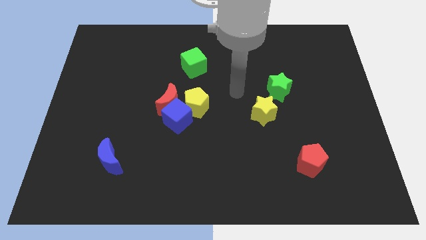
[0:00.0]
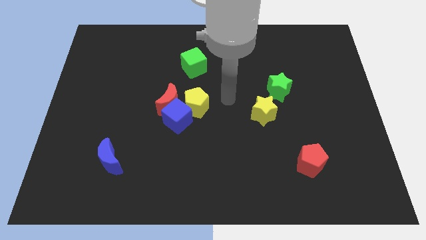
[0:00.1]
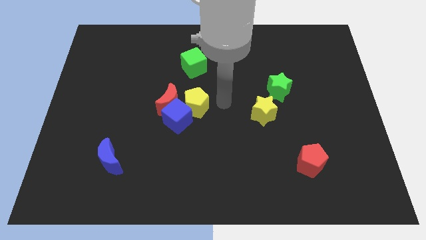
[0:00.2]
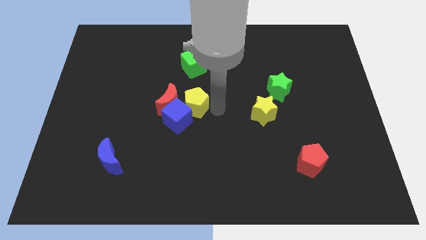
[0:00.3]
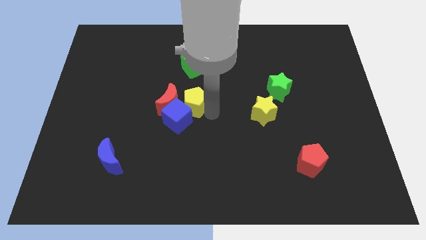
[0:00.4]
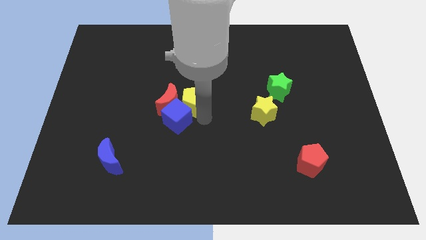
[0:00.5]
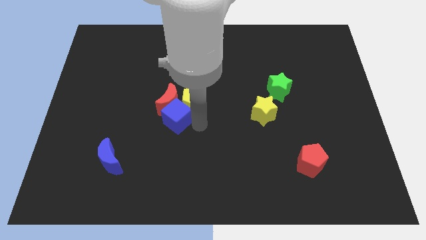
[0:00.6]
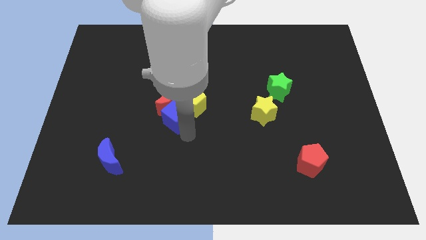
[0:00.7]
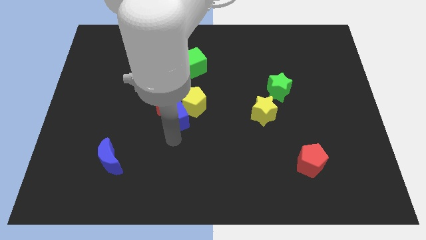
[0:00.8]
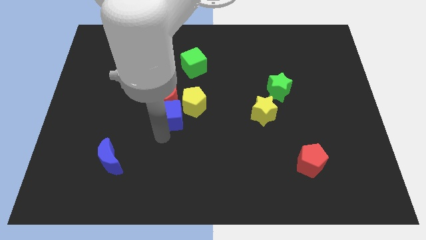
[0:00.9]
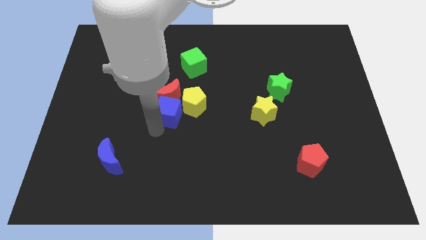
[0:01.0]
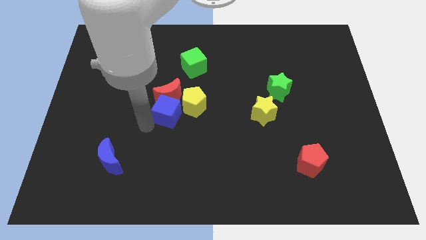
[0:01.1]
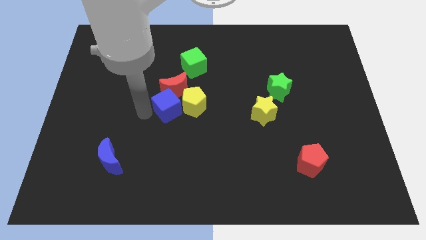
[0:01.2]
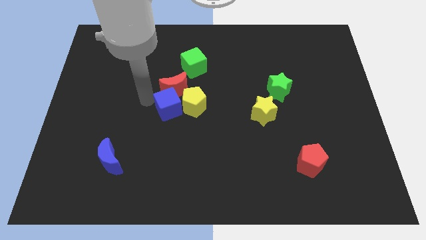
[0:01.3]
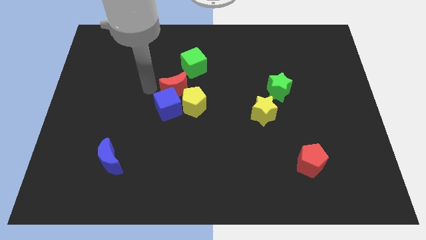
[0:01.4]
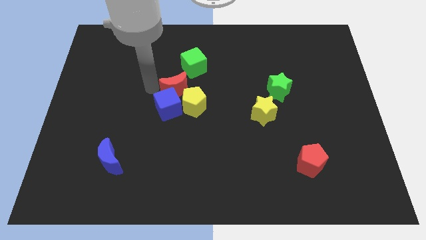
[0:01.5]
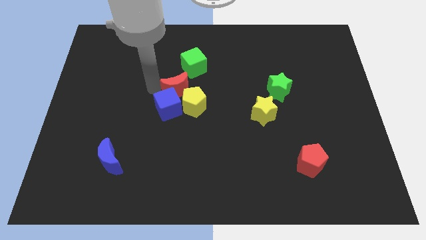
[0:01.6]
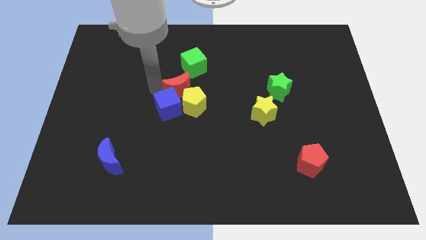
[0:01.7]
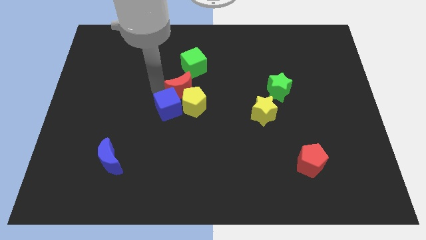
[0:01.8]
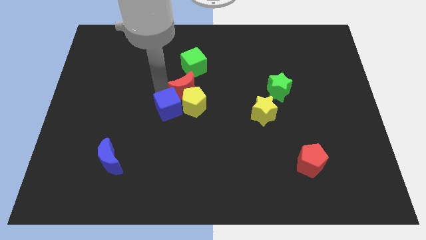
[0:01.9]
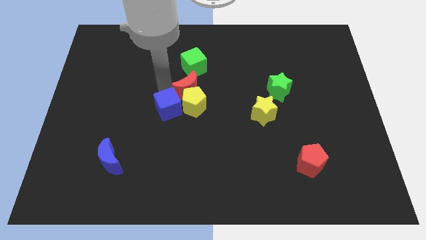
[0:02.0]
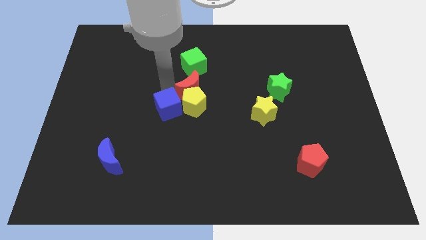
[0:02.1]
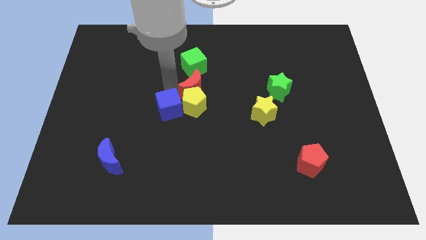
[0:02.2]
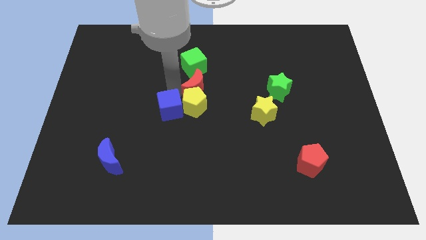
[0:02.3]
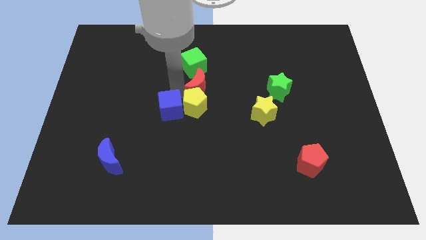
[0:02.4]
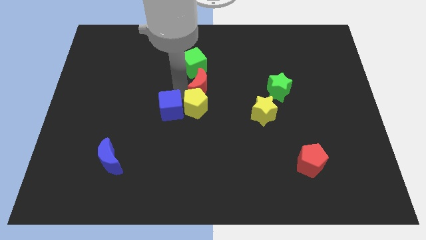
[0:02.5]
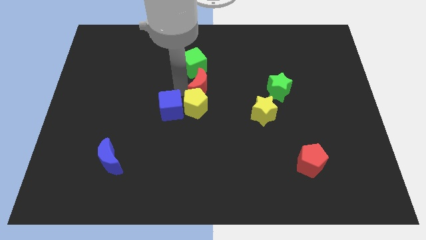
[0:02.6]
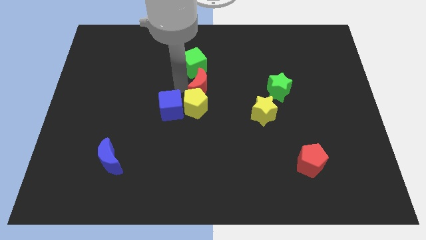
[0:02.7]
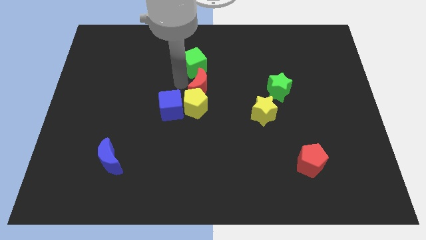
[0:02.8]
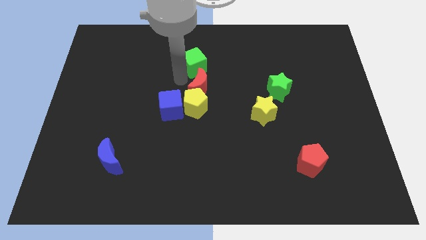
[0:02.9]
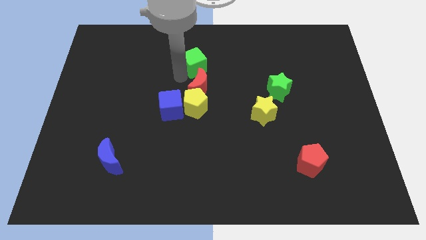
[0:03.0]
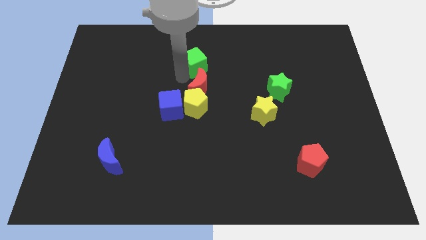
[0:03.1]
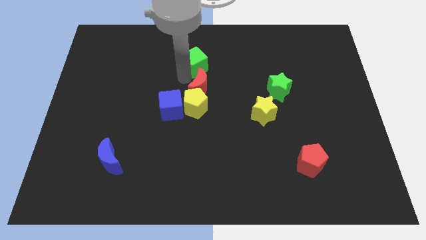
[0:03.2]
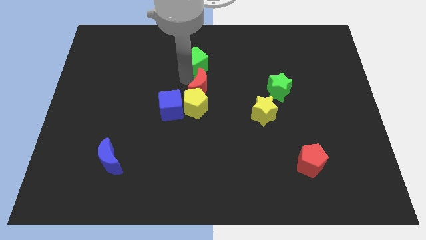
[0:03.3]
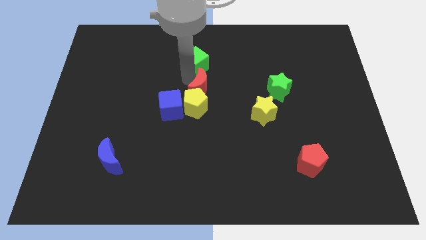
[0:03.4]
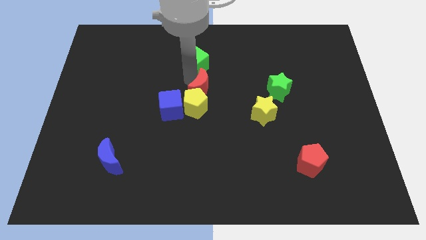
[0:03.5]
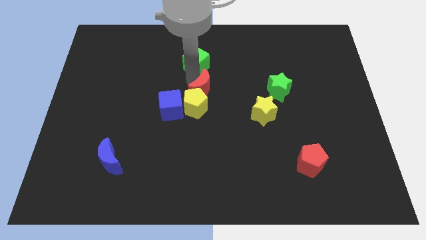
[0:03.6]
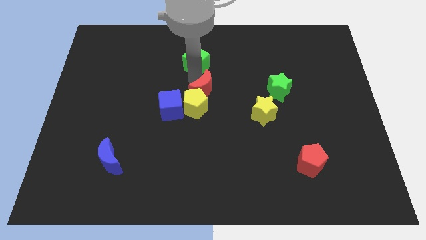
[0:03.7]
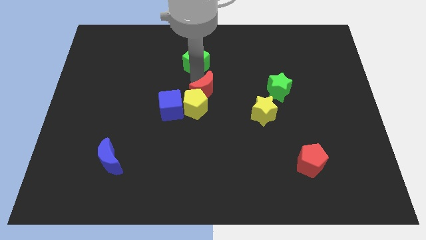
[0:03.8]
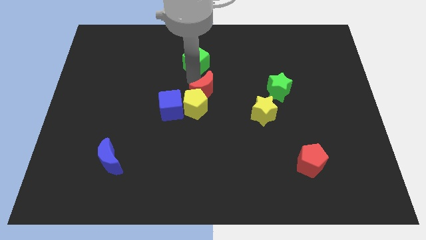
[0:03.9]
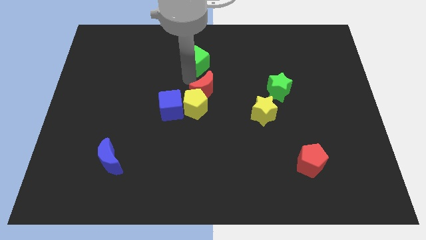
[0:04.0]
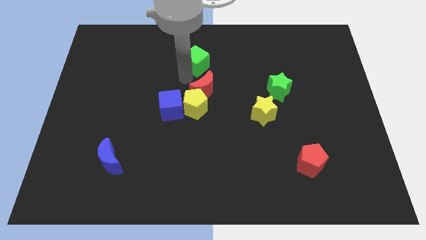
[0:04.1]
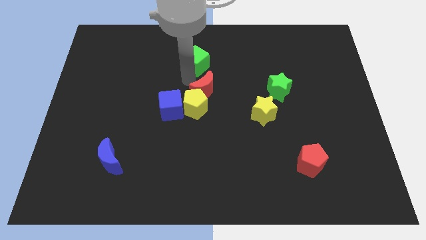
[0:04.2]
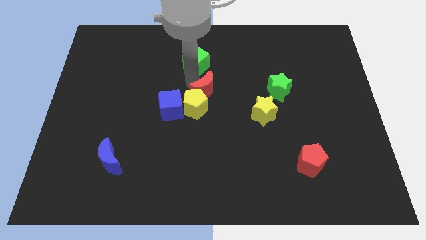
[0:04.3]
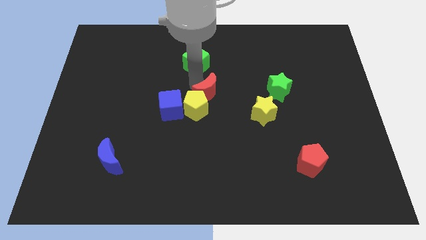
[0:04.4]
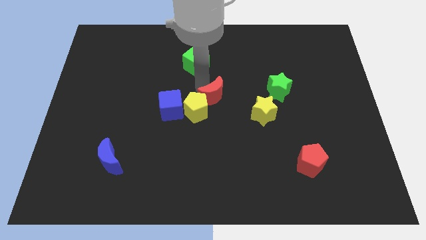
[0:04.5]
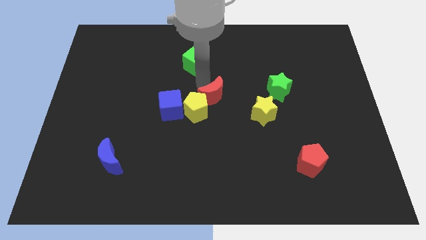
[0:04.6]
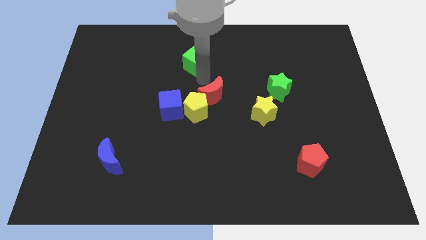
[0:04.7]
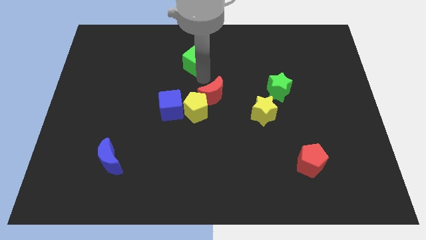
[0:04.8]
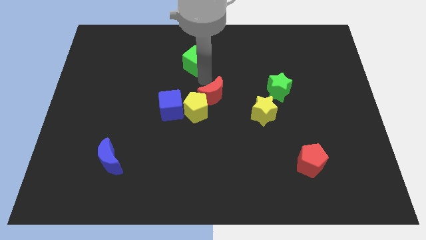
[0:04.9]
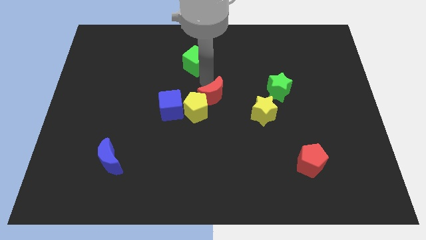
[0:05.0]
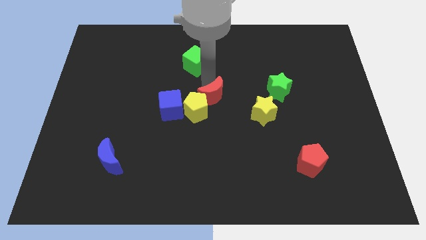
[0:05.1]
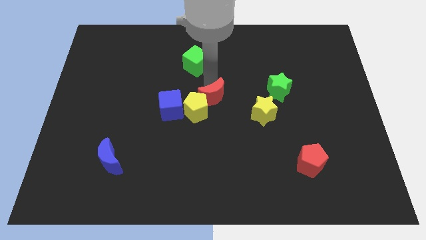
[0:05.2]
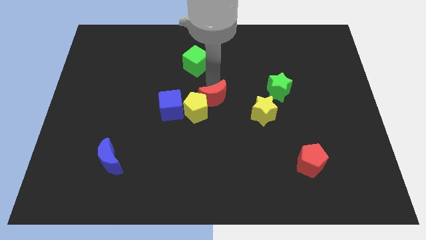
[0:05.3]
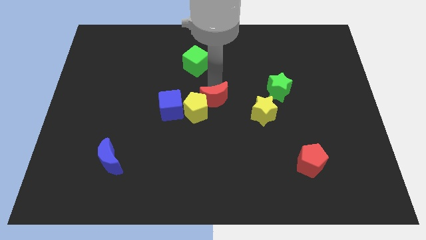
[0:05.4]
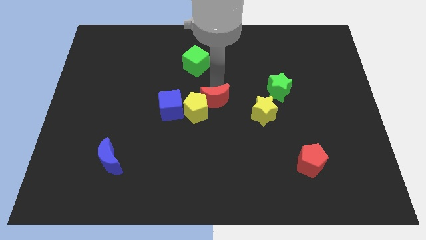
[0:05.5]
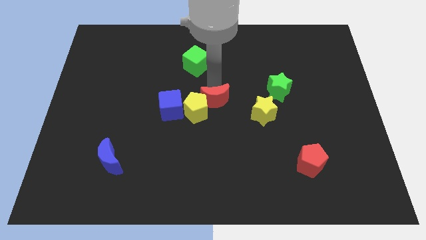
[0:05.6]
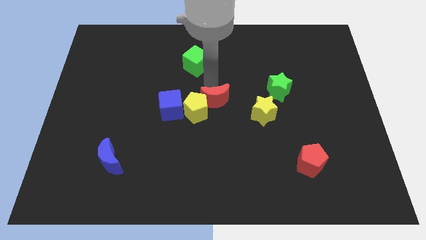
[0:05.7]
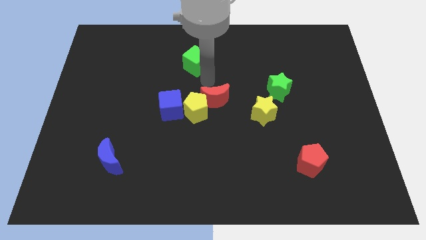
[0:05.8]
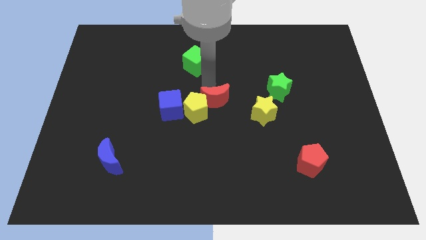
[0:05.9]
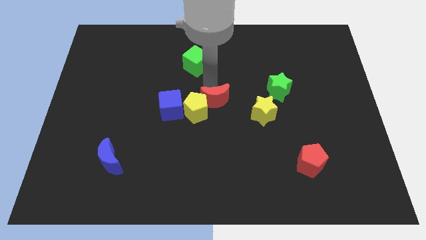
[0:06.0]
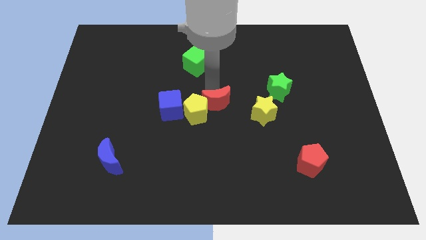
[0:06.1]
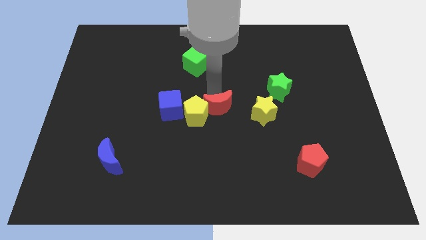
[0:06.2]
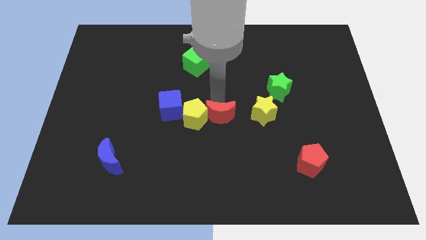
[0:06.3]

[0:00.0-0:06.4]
push the red moon downwards and then to the right somewhat

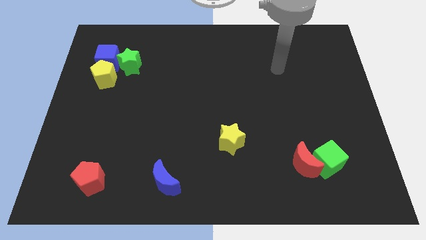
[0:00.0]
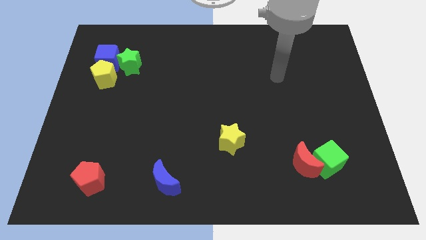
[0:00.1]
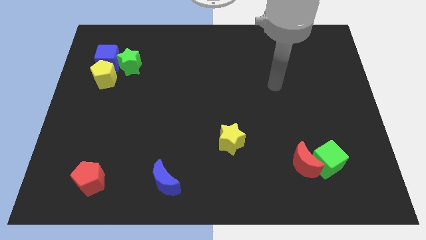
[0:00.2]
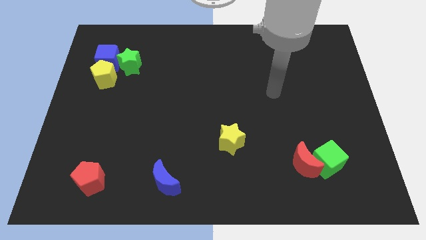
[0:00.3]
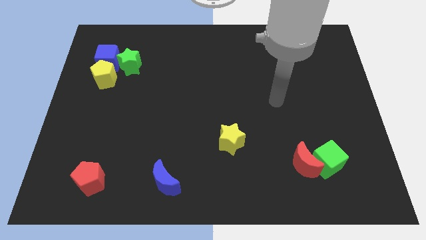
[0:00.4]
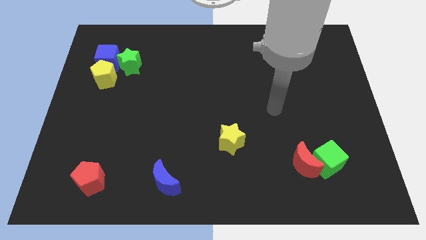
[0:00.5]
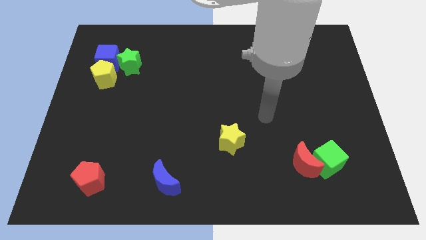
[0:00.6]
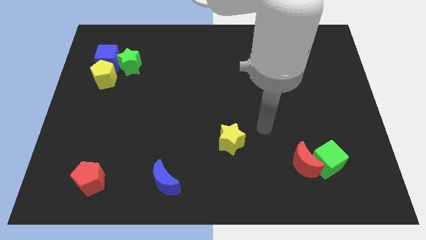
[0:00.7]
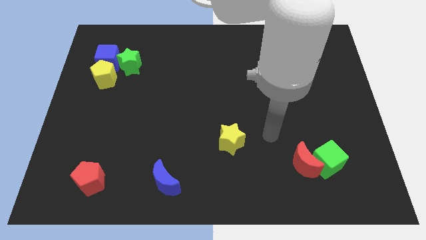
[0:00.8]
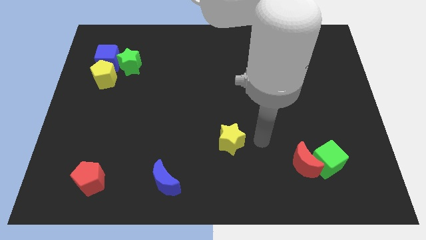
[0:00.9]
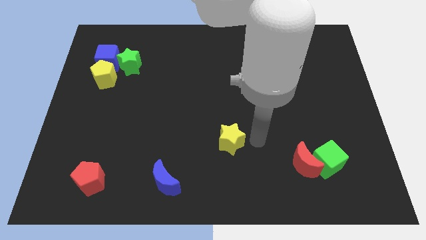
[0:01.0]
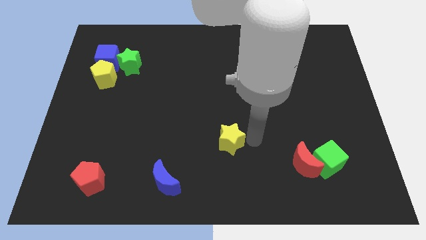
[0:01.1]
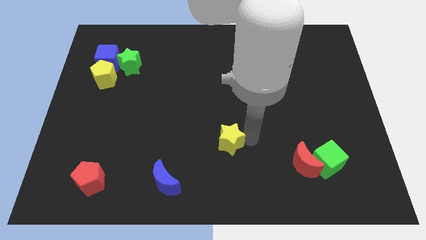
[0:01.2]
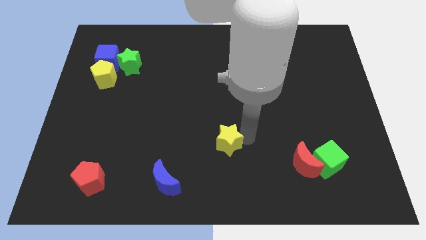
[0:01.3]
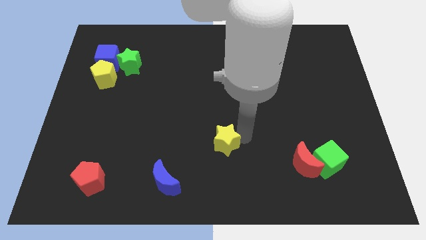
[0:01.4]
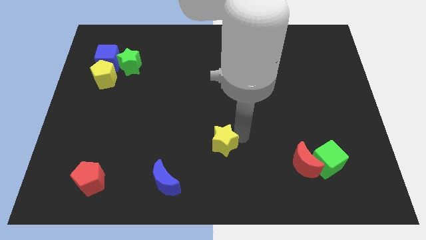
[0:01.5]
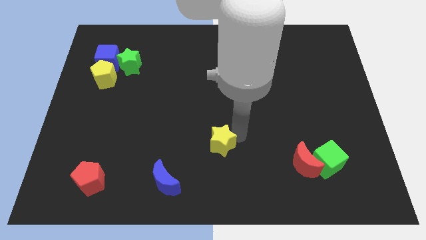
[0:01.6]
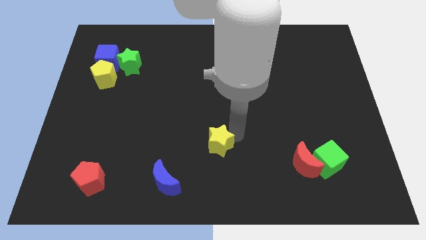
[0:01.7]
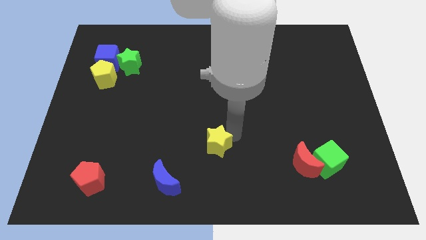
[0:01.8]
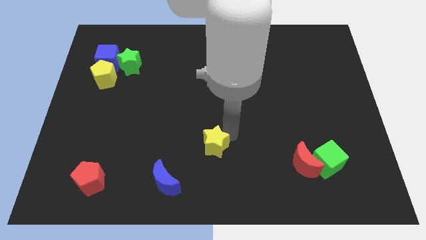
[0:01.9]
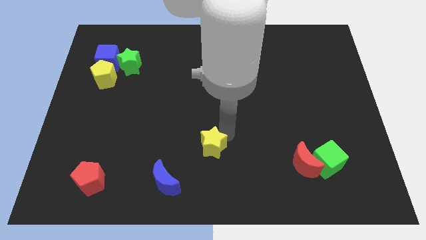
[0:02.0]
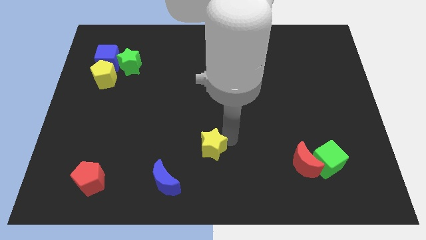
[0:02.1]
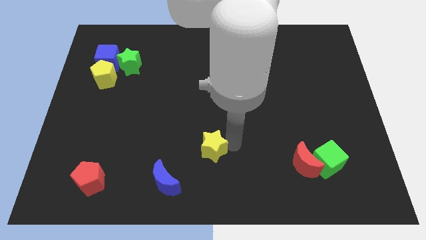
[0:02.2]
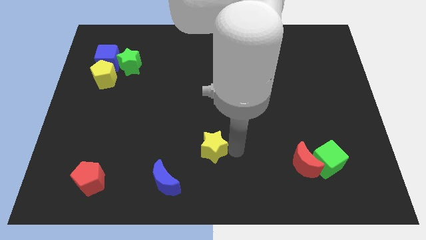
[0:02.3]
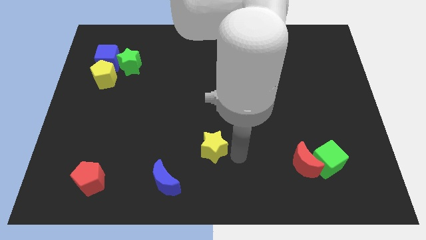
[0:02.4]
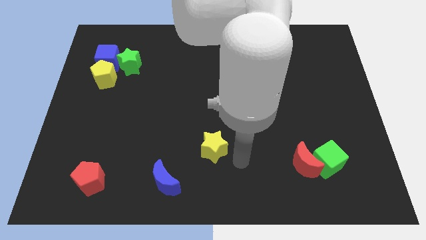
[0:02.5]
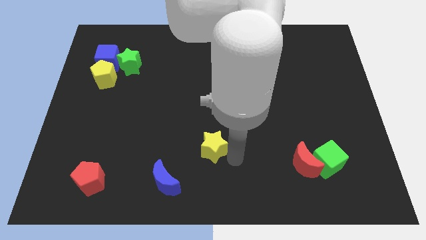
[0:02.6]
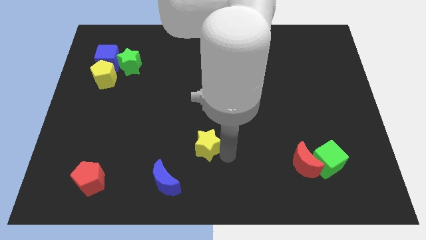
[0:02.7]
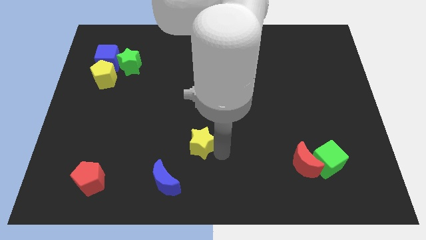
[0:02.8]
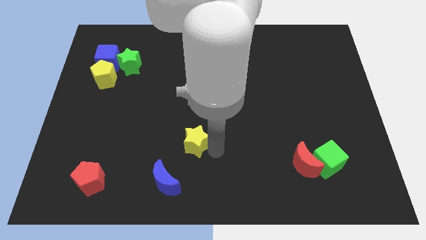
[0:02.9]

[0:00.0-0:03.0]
slide the yellow star somewhat to the left
